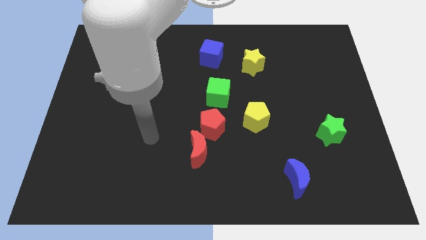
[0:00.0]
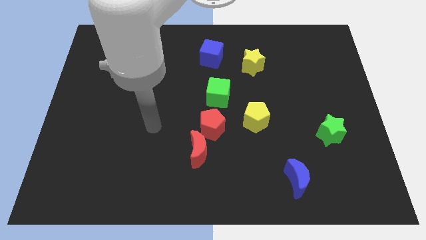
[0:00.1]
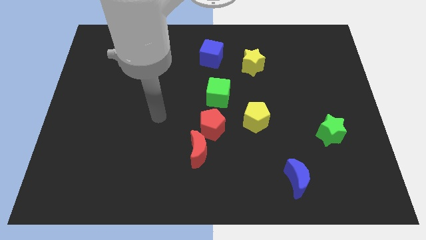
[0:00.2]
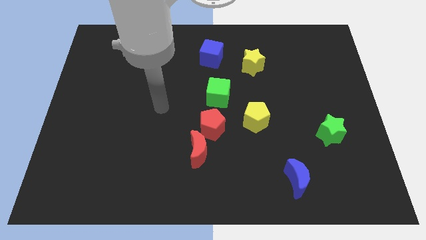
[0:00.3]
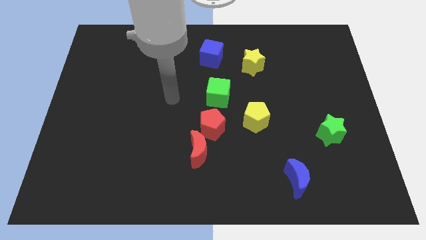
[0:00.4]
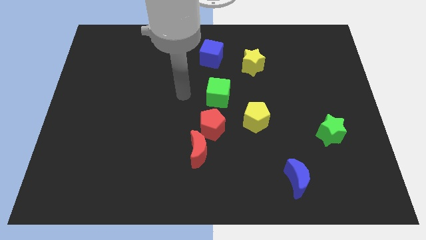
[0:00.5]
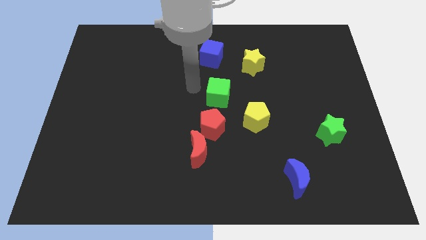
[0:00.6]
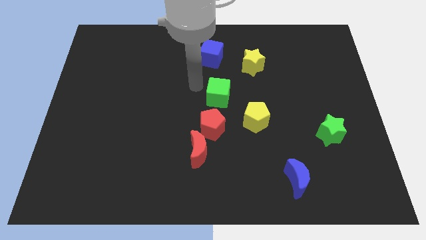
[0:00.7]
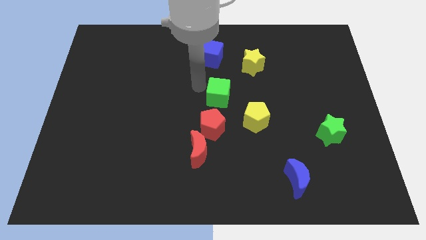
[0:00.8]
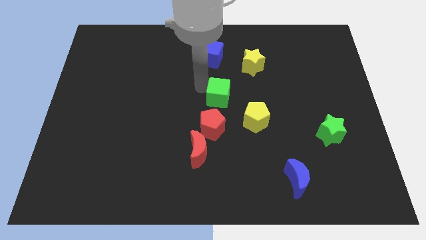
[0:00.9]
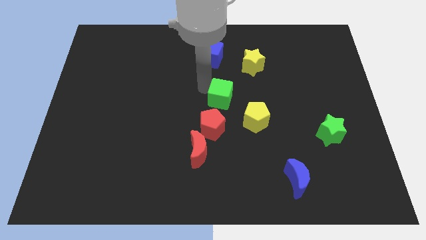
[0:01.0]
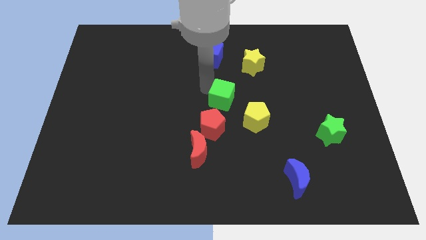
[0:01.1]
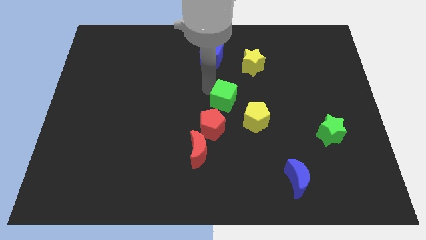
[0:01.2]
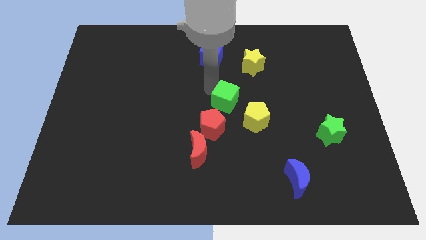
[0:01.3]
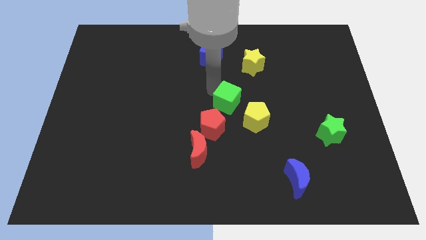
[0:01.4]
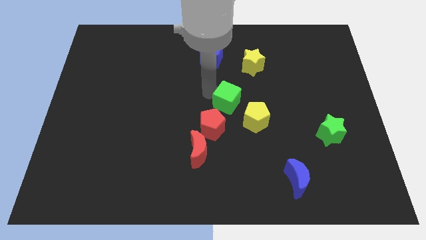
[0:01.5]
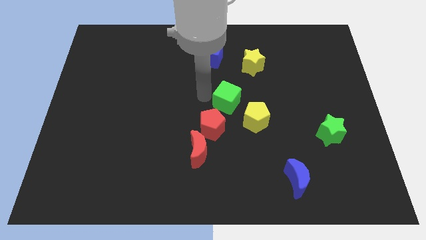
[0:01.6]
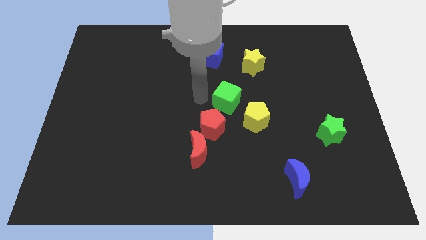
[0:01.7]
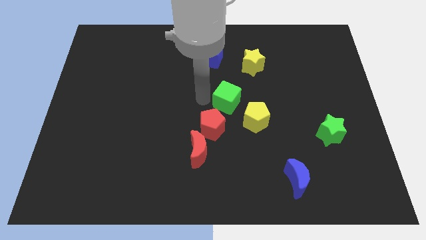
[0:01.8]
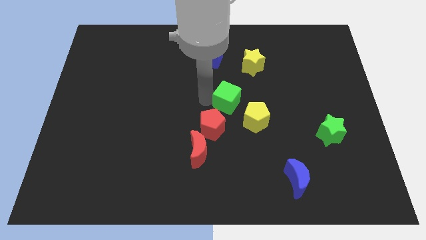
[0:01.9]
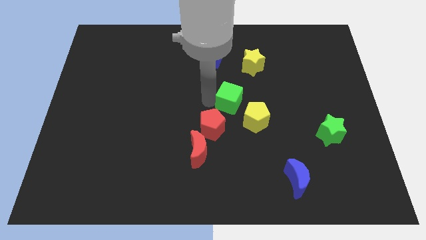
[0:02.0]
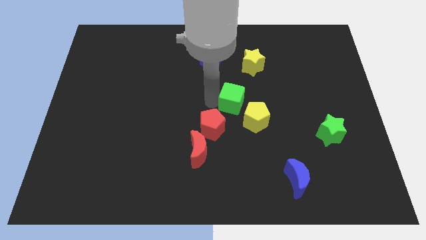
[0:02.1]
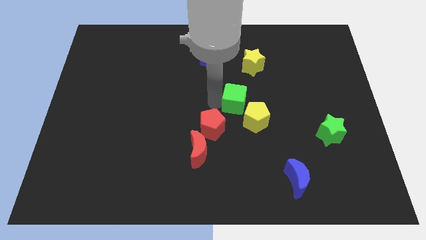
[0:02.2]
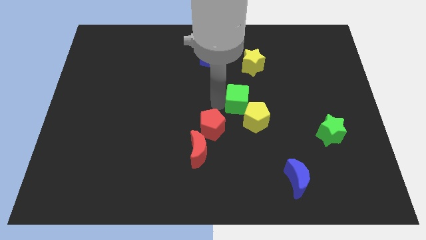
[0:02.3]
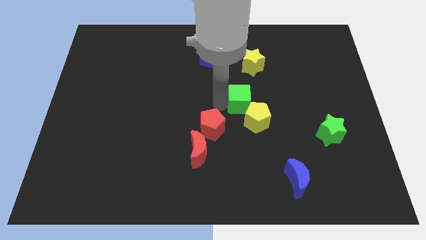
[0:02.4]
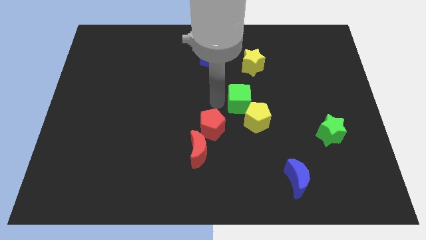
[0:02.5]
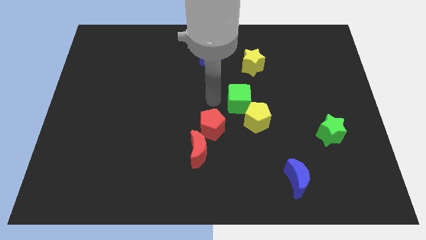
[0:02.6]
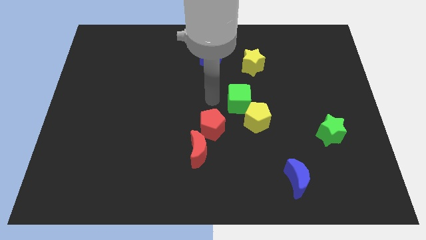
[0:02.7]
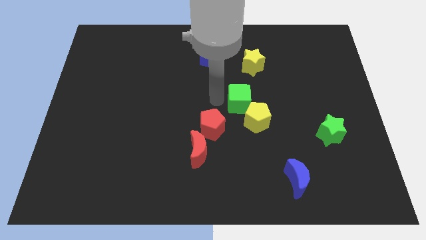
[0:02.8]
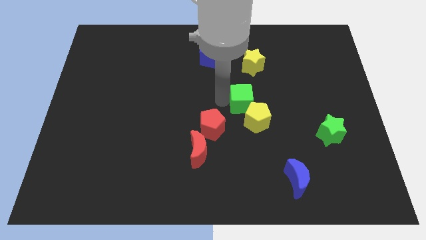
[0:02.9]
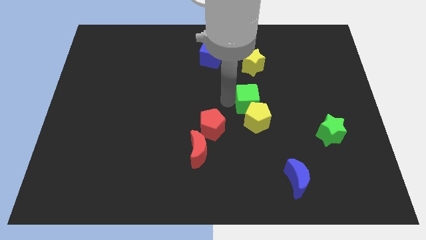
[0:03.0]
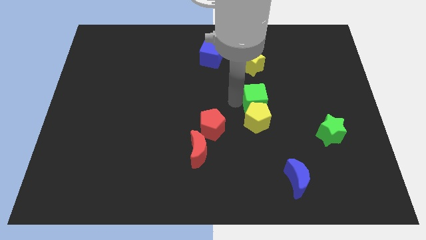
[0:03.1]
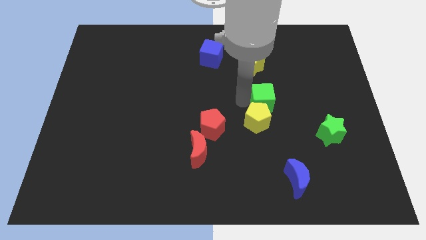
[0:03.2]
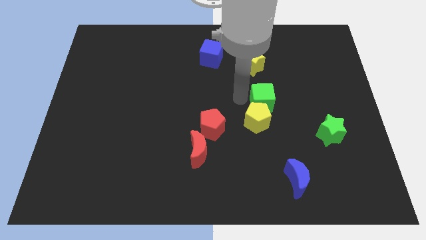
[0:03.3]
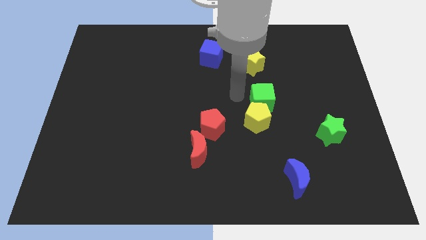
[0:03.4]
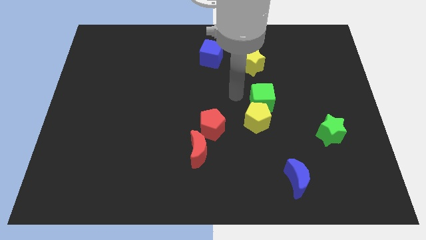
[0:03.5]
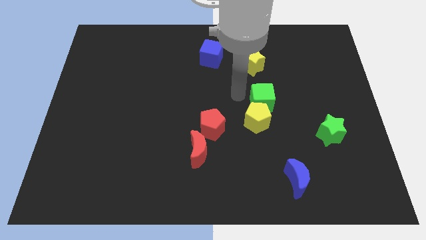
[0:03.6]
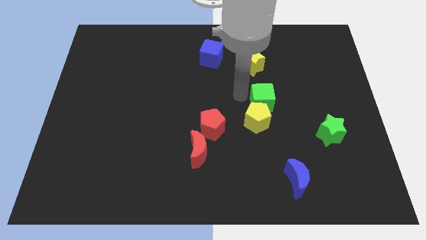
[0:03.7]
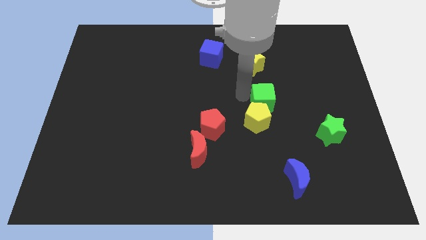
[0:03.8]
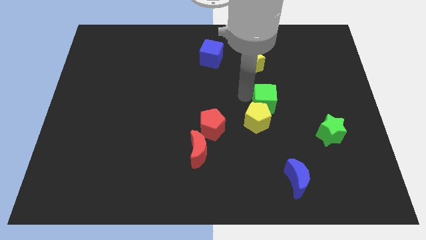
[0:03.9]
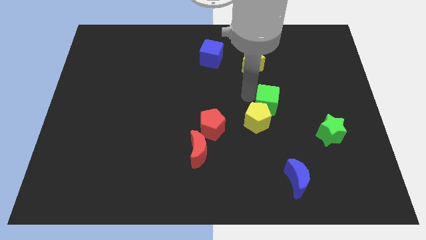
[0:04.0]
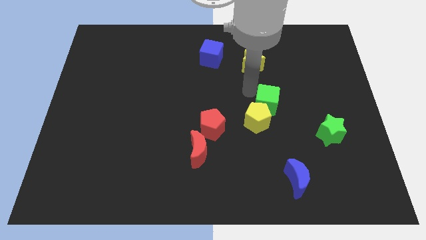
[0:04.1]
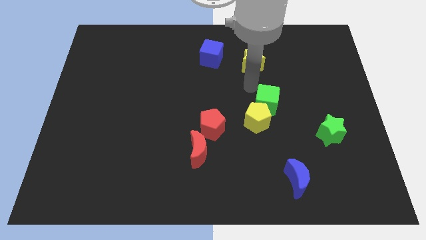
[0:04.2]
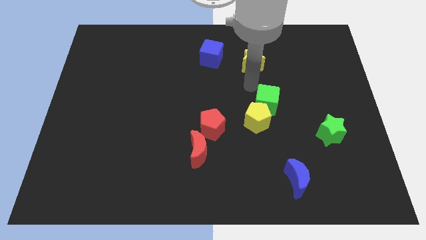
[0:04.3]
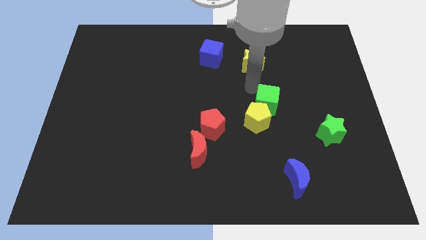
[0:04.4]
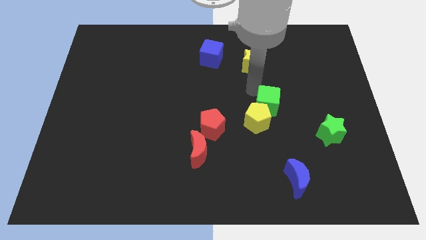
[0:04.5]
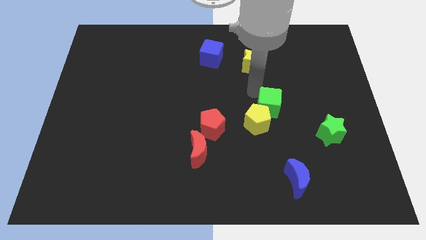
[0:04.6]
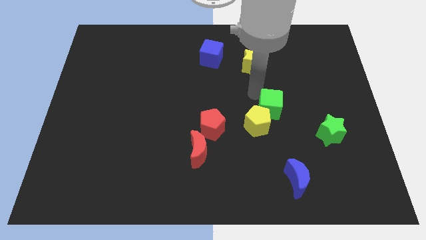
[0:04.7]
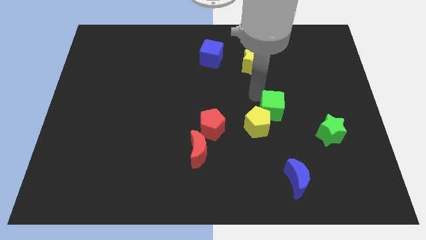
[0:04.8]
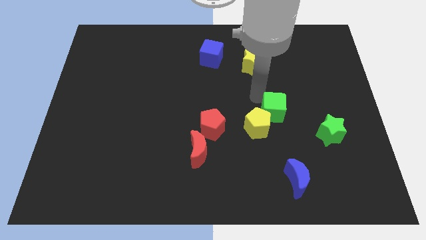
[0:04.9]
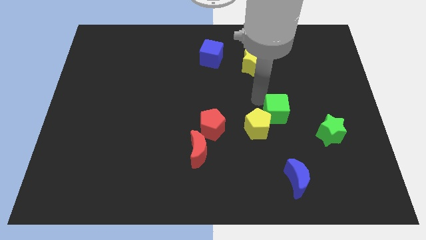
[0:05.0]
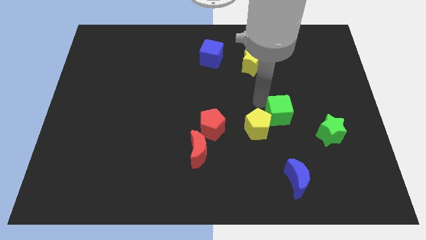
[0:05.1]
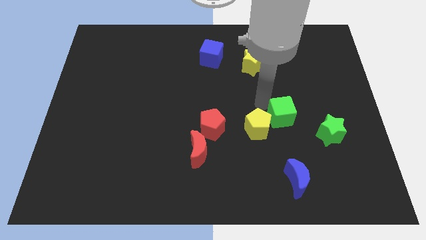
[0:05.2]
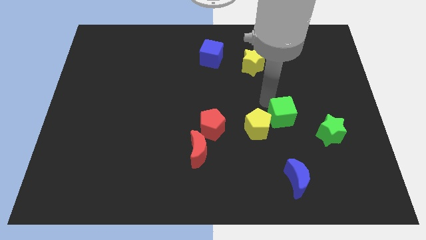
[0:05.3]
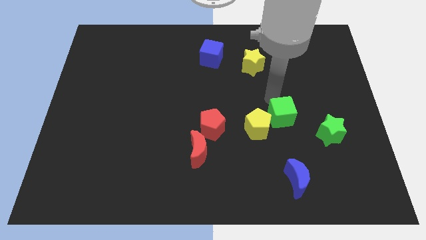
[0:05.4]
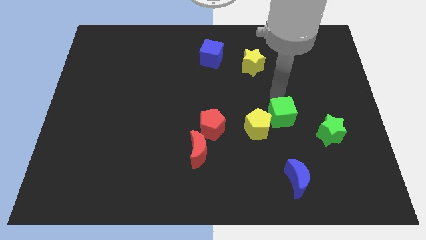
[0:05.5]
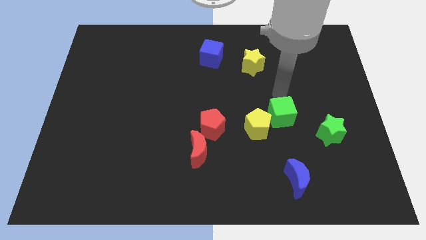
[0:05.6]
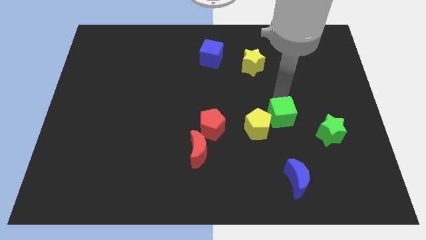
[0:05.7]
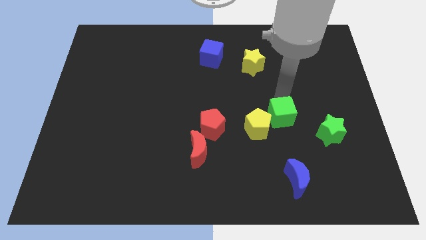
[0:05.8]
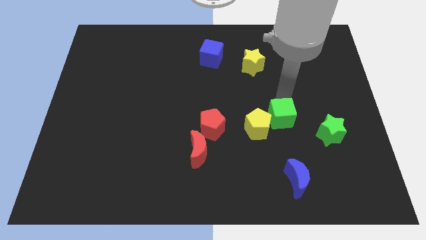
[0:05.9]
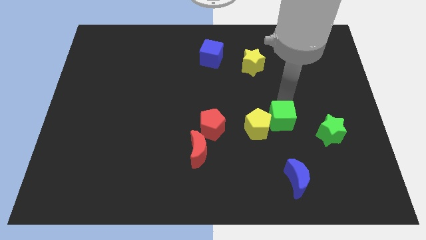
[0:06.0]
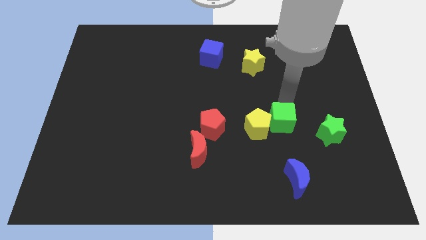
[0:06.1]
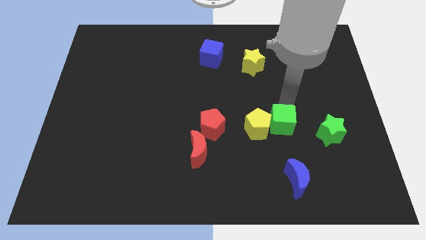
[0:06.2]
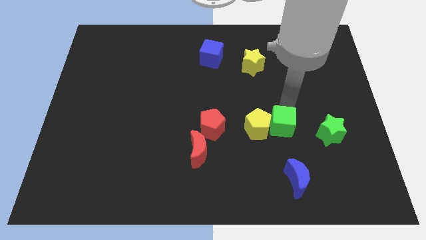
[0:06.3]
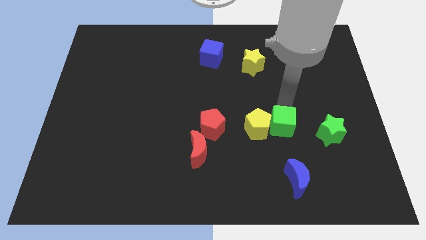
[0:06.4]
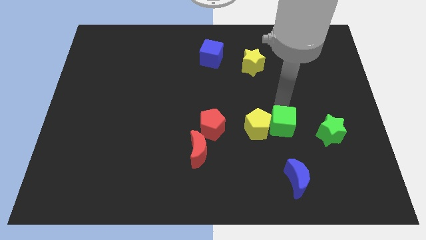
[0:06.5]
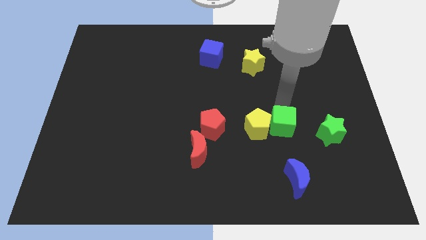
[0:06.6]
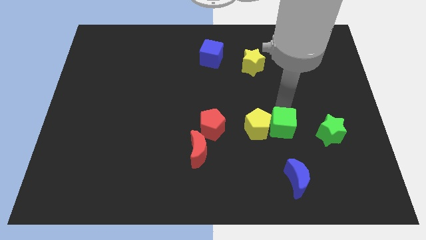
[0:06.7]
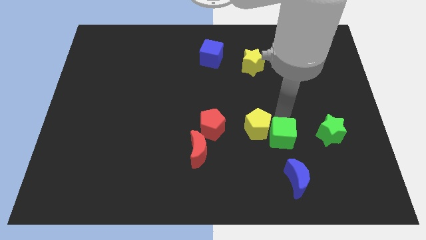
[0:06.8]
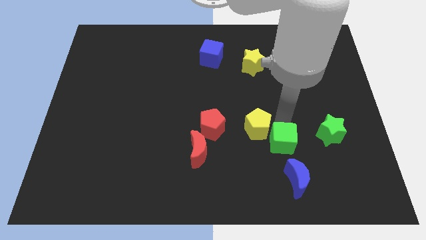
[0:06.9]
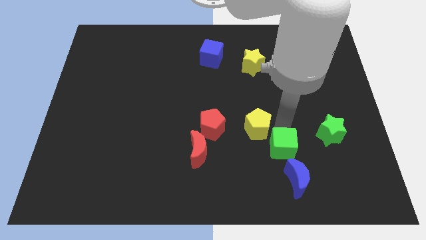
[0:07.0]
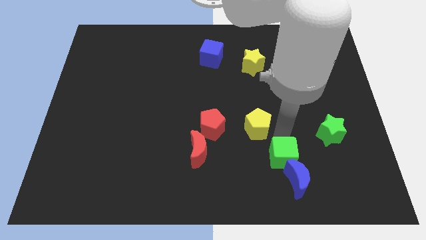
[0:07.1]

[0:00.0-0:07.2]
push the green cube next to the blue moon
